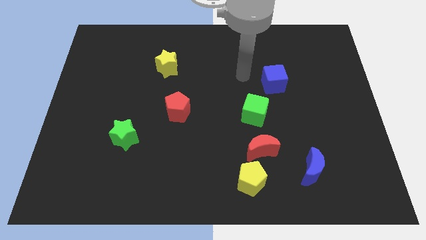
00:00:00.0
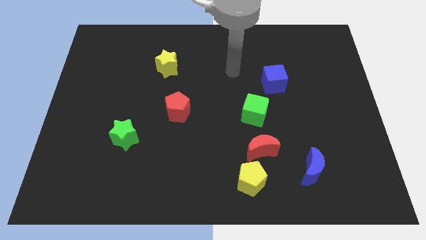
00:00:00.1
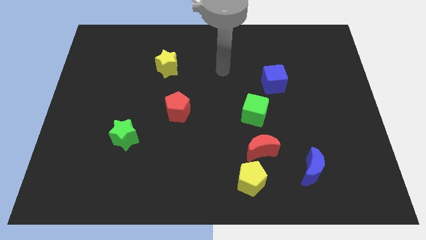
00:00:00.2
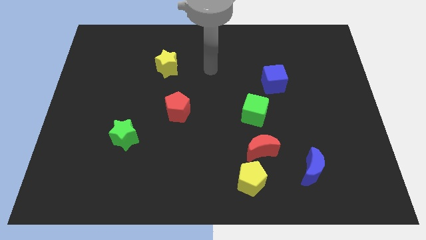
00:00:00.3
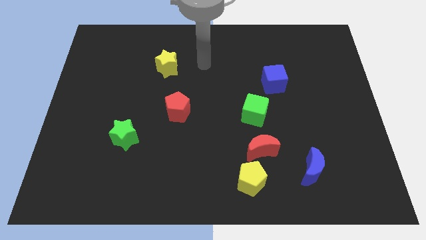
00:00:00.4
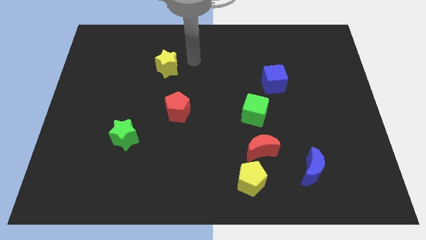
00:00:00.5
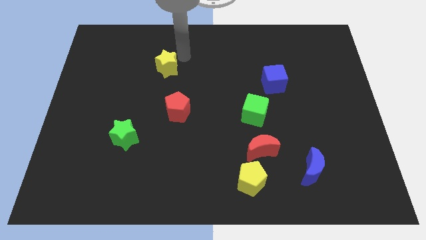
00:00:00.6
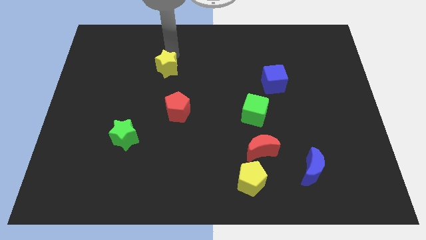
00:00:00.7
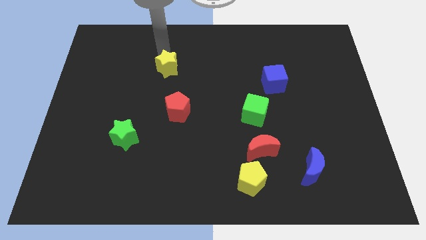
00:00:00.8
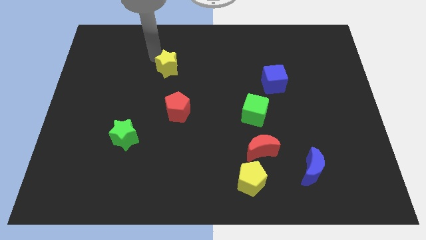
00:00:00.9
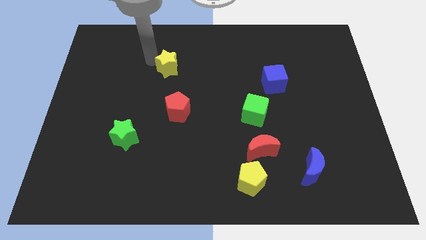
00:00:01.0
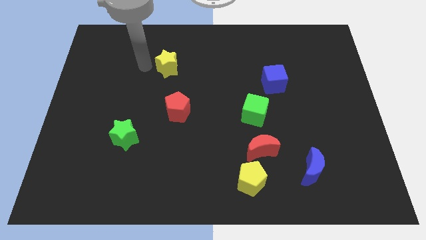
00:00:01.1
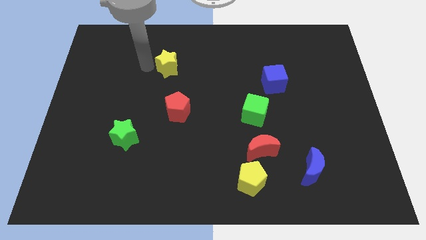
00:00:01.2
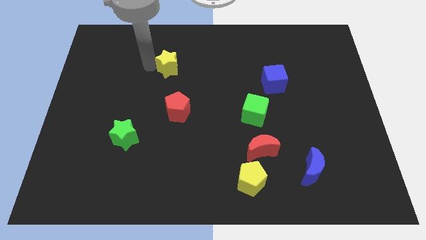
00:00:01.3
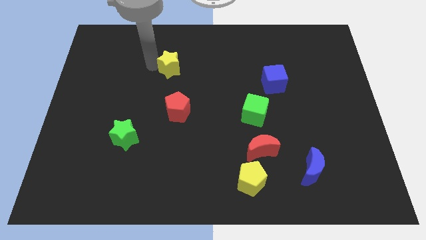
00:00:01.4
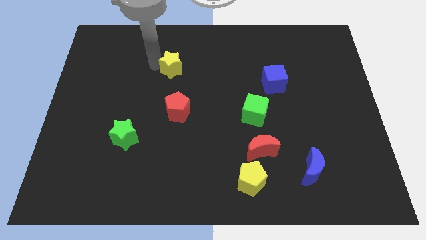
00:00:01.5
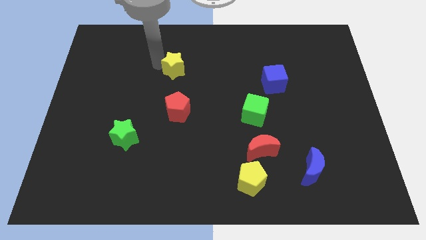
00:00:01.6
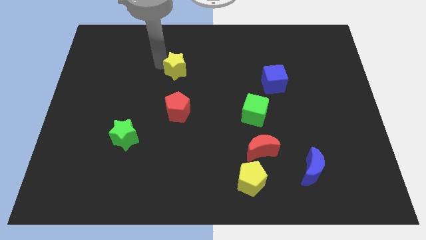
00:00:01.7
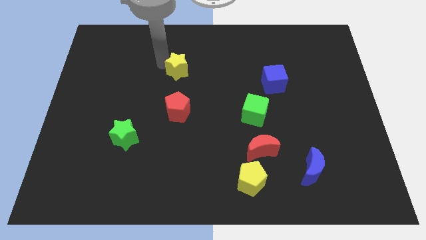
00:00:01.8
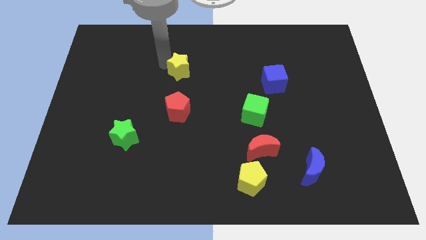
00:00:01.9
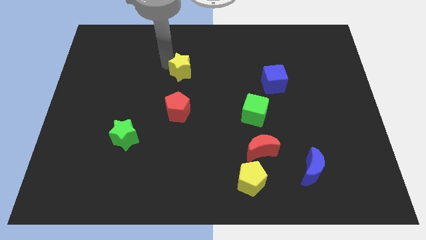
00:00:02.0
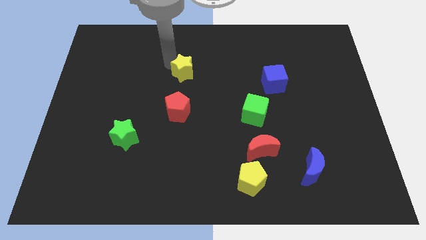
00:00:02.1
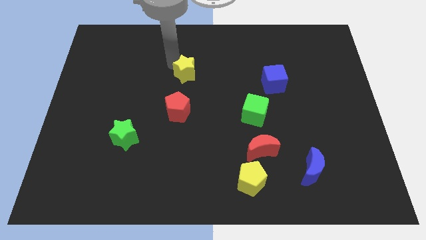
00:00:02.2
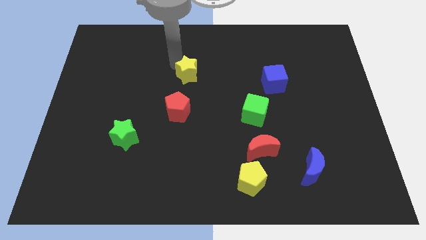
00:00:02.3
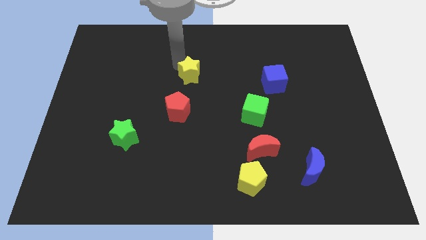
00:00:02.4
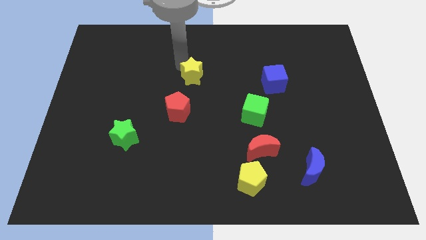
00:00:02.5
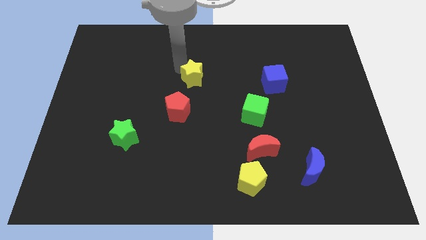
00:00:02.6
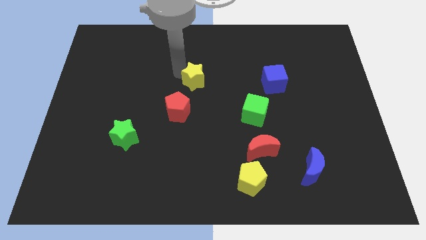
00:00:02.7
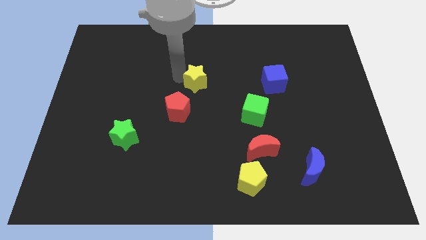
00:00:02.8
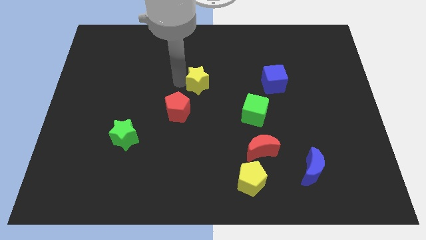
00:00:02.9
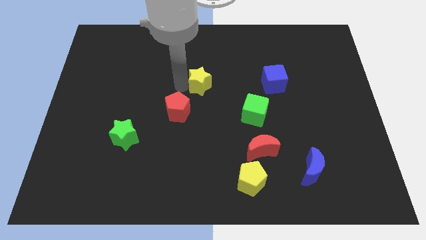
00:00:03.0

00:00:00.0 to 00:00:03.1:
move the yellow star right slightly

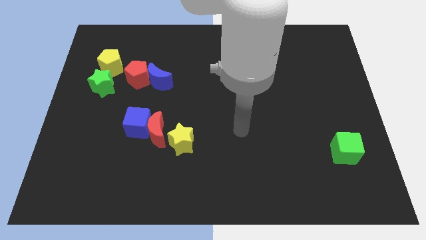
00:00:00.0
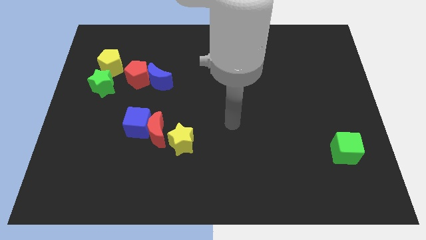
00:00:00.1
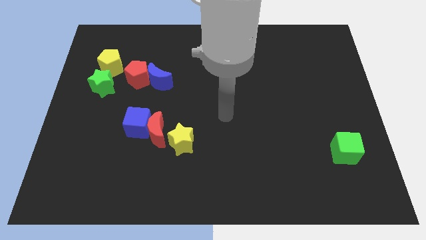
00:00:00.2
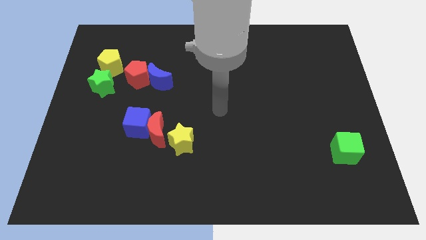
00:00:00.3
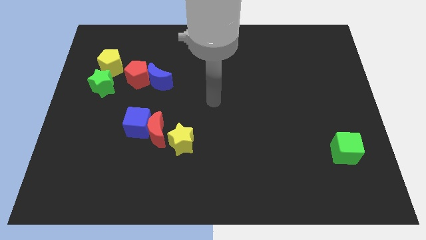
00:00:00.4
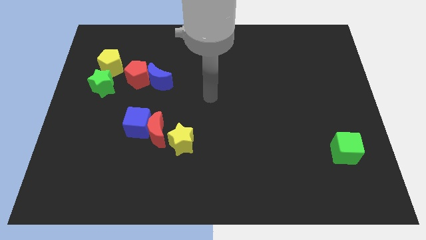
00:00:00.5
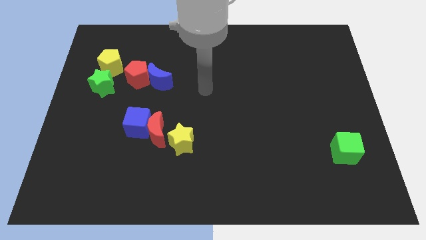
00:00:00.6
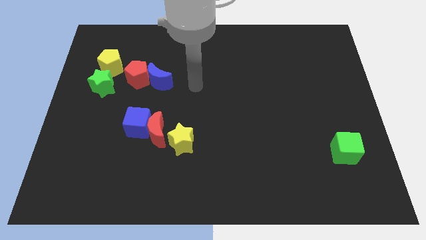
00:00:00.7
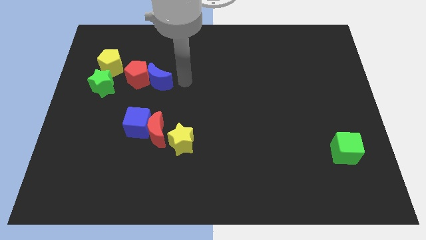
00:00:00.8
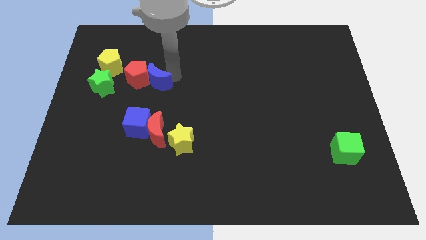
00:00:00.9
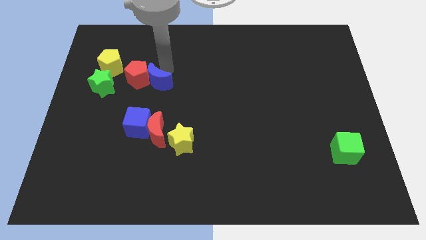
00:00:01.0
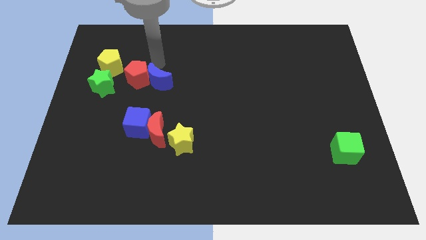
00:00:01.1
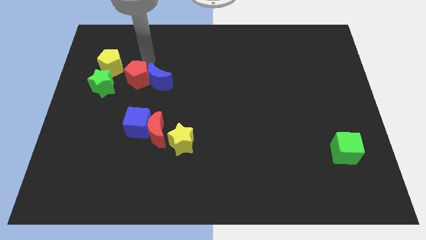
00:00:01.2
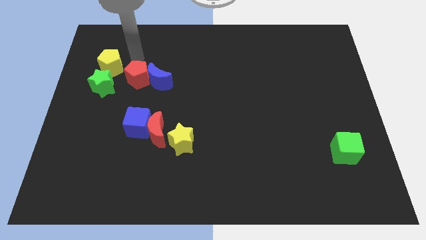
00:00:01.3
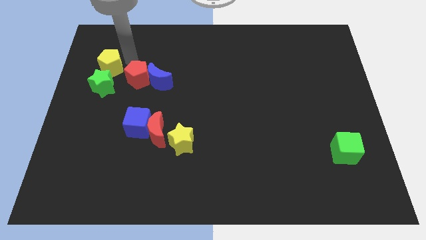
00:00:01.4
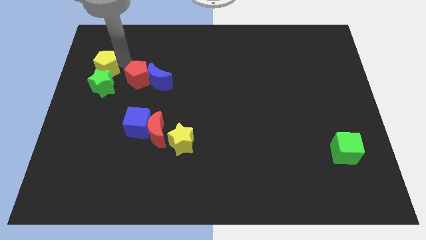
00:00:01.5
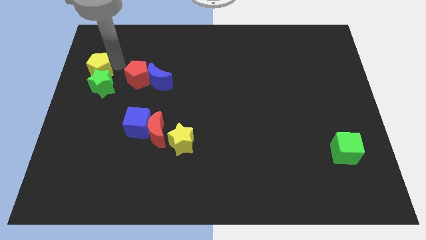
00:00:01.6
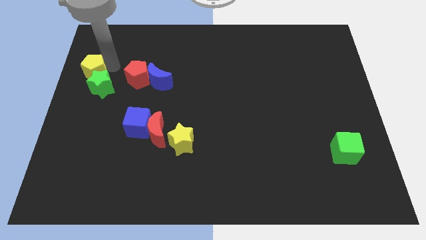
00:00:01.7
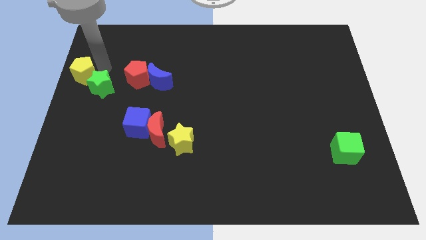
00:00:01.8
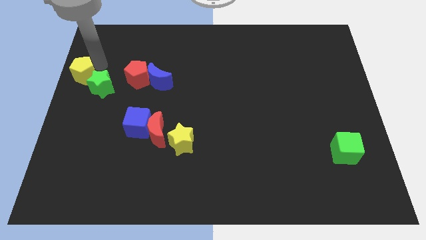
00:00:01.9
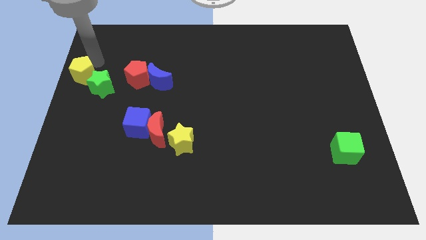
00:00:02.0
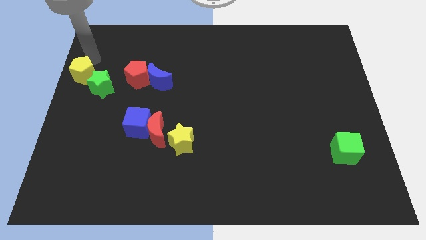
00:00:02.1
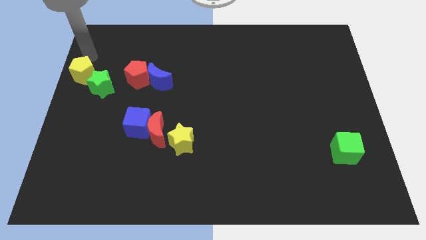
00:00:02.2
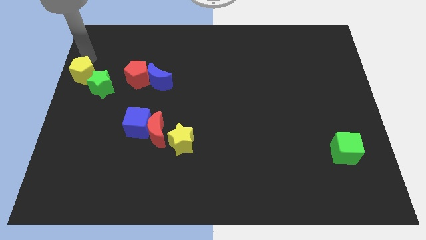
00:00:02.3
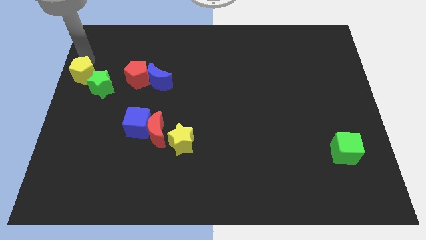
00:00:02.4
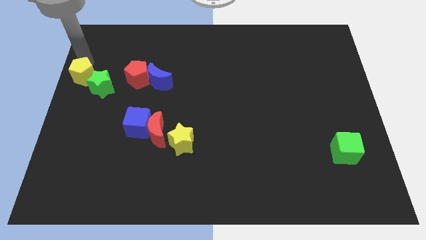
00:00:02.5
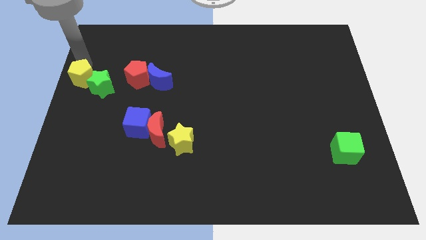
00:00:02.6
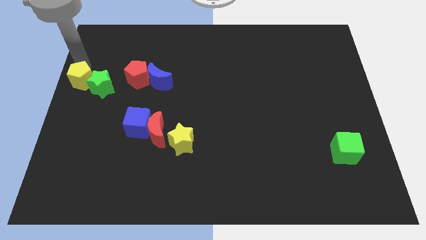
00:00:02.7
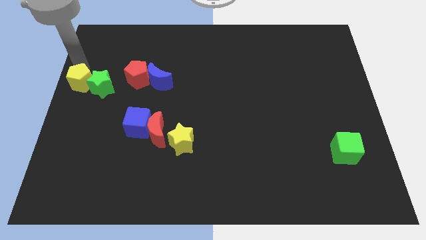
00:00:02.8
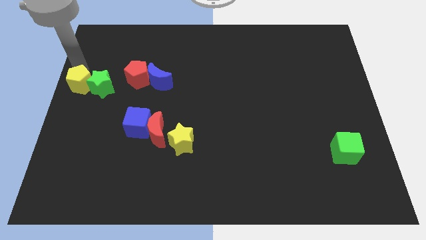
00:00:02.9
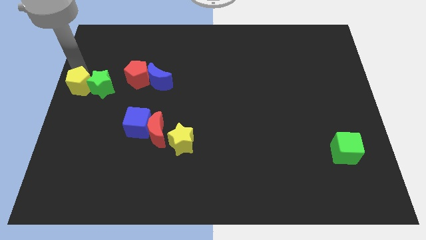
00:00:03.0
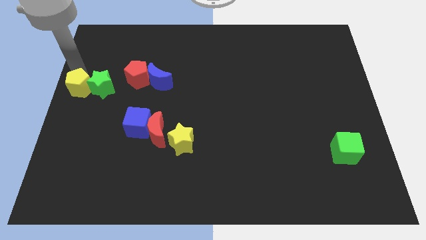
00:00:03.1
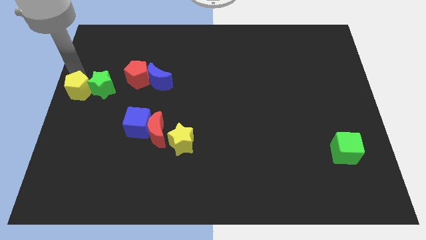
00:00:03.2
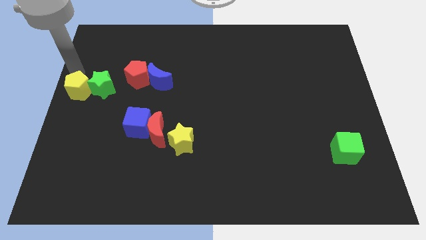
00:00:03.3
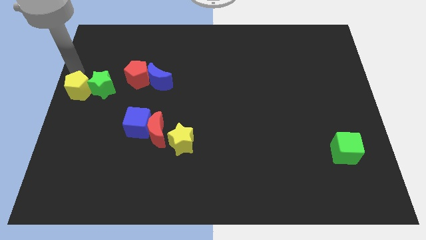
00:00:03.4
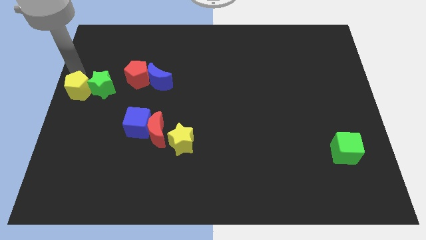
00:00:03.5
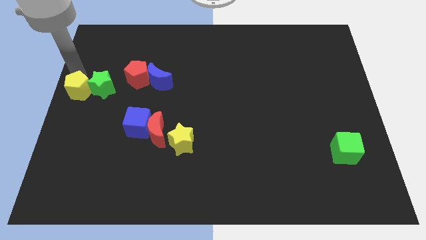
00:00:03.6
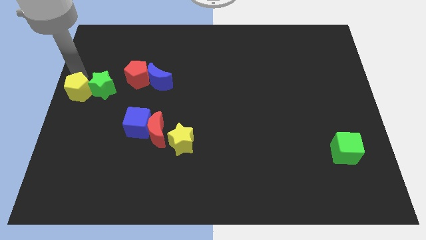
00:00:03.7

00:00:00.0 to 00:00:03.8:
move the yellow pentagon downwards somewhat

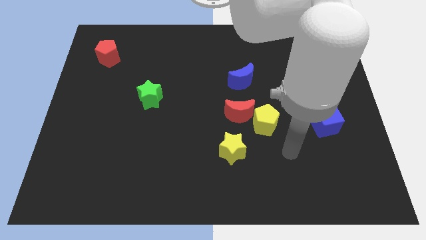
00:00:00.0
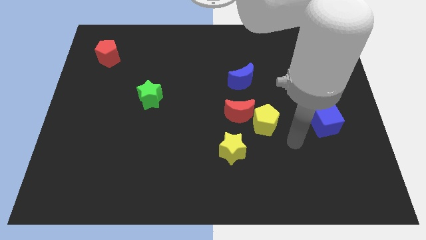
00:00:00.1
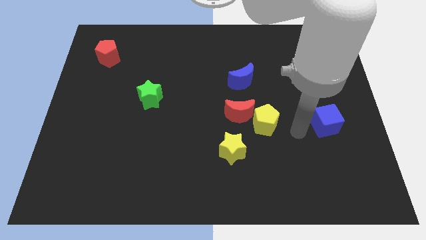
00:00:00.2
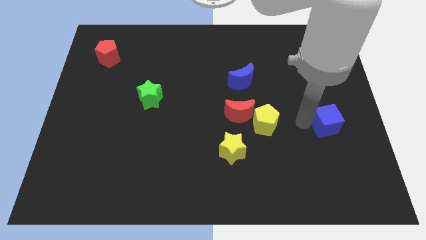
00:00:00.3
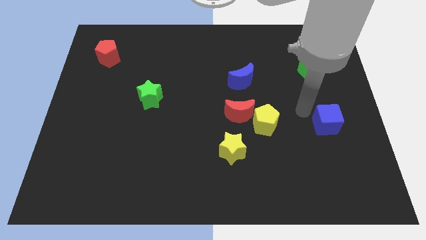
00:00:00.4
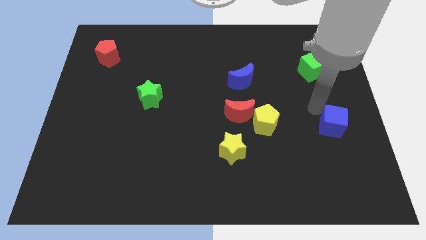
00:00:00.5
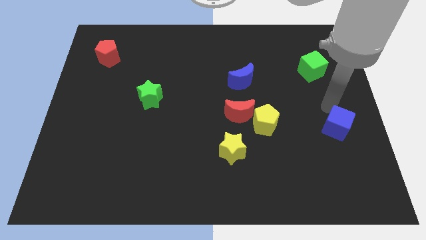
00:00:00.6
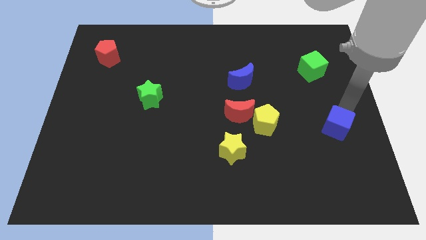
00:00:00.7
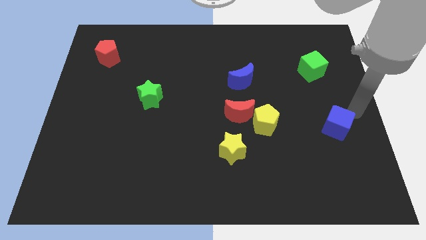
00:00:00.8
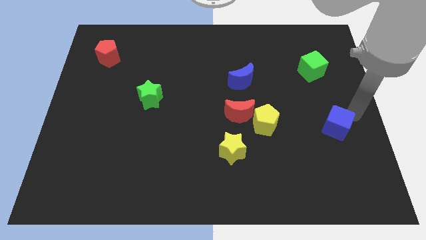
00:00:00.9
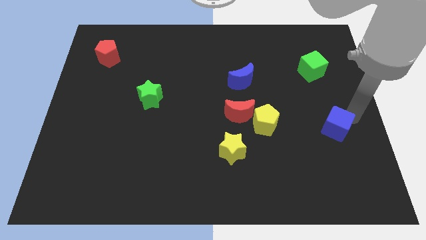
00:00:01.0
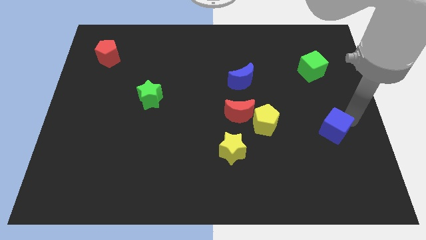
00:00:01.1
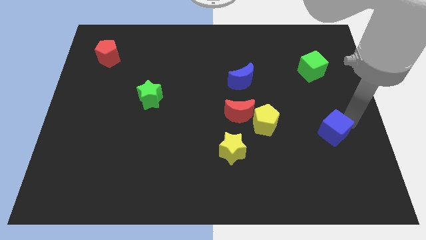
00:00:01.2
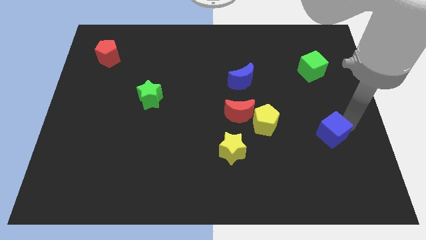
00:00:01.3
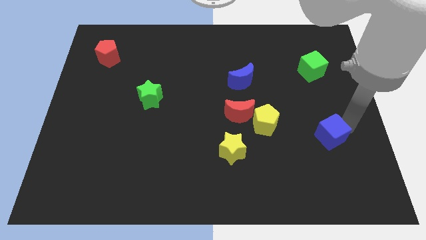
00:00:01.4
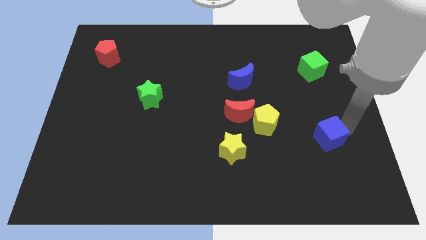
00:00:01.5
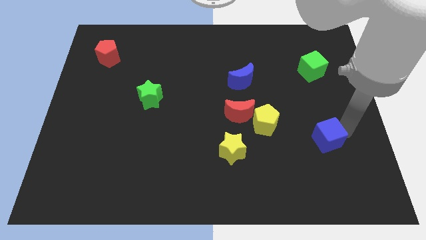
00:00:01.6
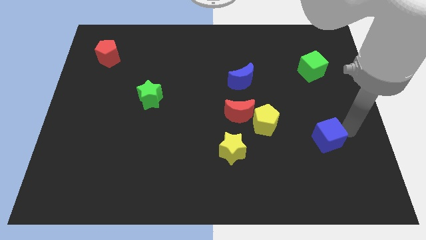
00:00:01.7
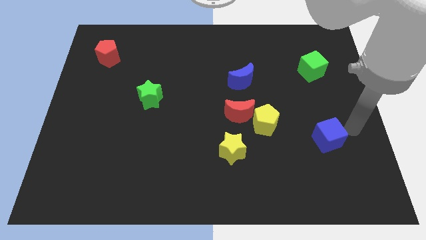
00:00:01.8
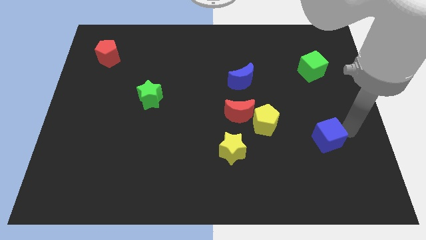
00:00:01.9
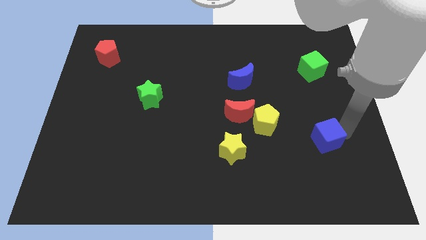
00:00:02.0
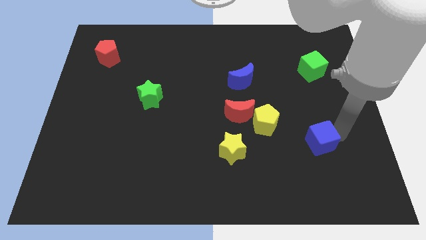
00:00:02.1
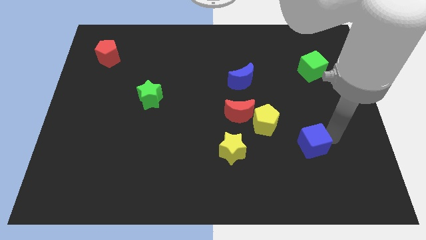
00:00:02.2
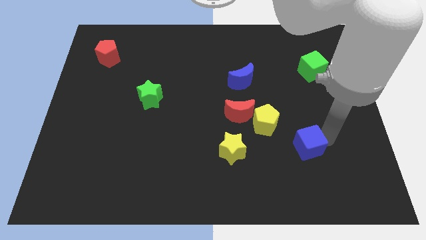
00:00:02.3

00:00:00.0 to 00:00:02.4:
move the blue cube a bit downwards and then to the left
